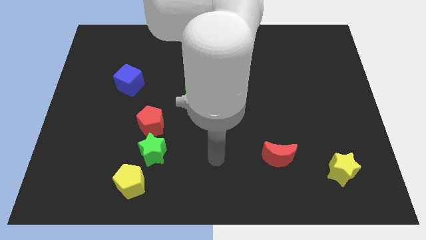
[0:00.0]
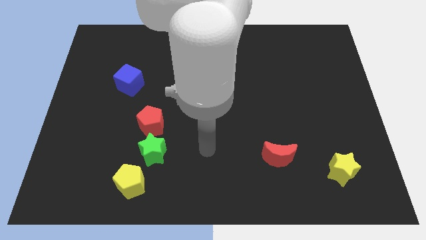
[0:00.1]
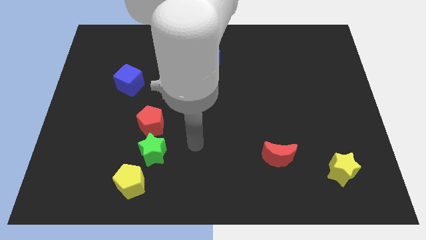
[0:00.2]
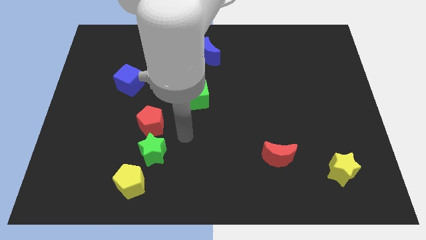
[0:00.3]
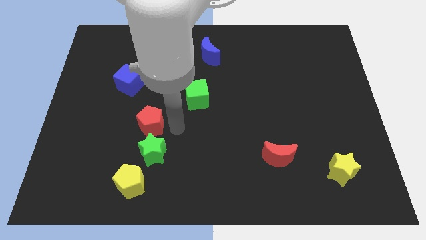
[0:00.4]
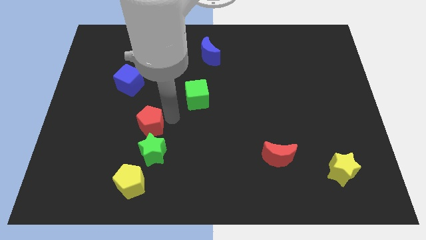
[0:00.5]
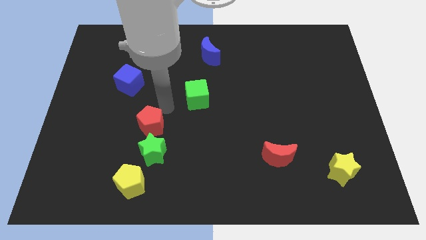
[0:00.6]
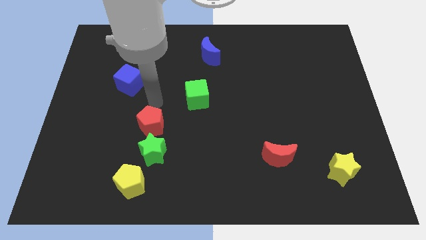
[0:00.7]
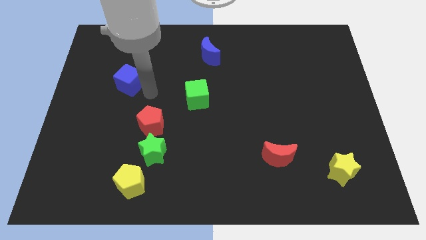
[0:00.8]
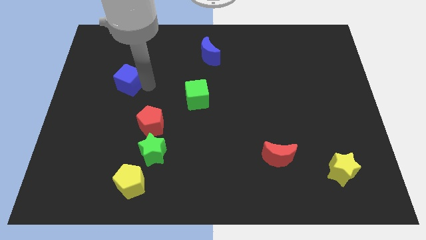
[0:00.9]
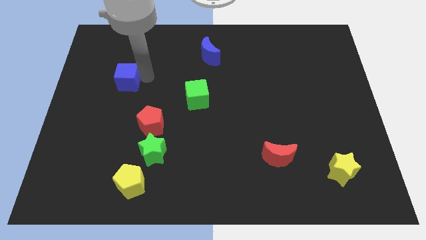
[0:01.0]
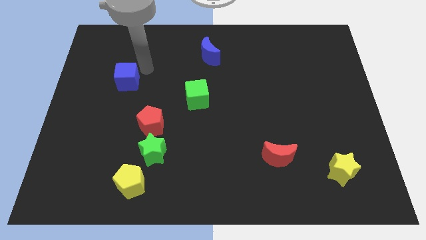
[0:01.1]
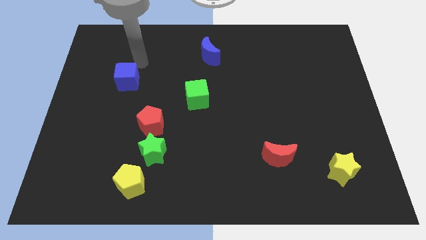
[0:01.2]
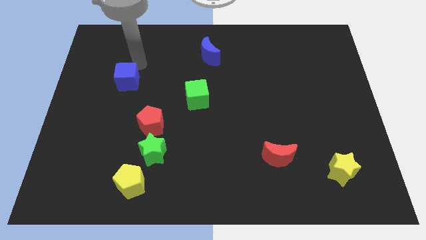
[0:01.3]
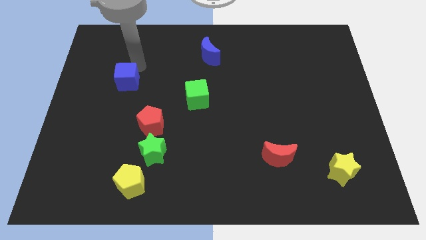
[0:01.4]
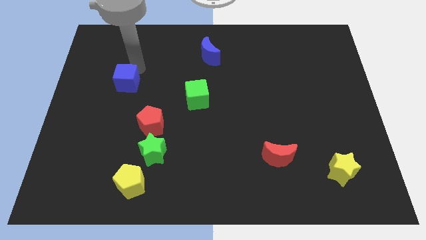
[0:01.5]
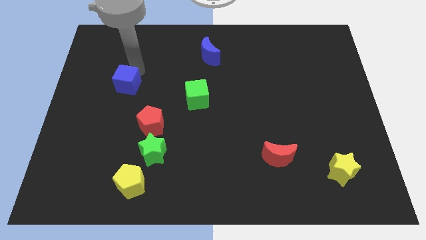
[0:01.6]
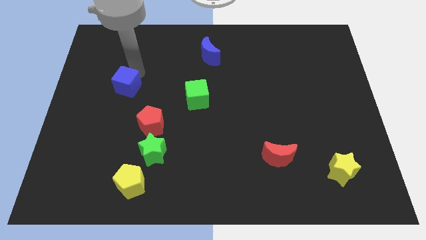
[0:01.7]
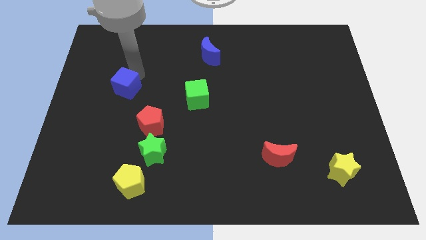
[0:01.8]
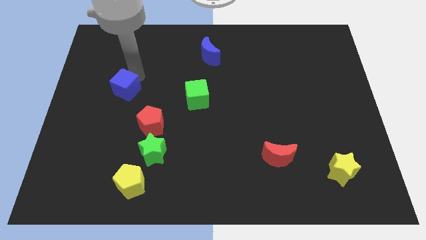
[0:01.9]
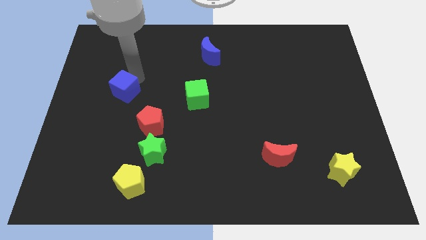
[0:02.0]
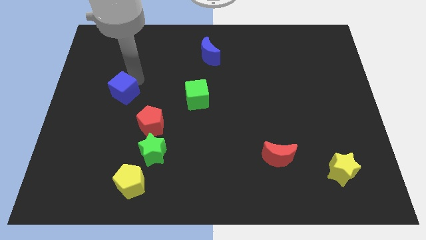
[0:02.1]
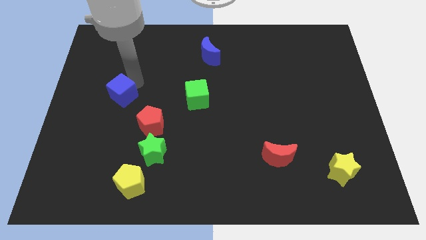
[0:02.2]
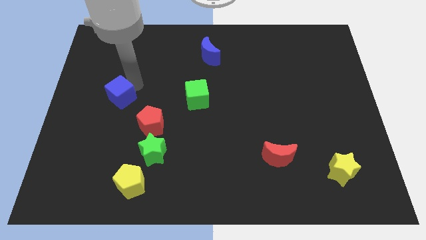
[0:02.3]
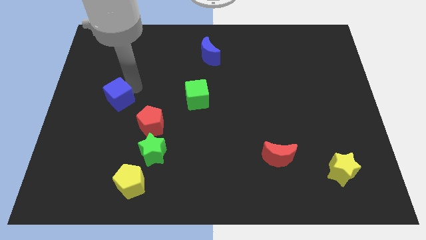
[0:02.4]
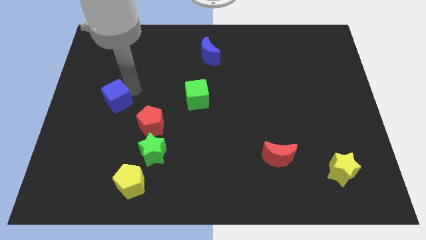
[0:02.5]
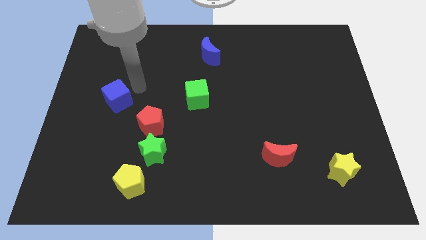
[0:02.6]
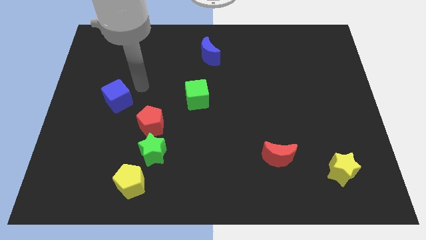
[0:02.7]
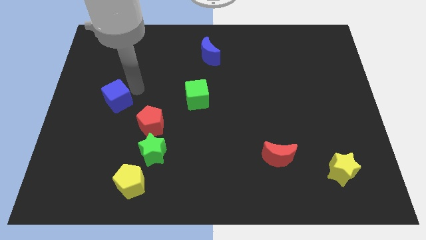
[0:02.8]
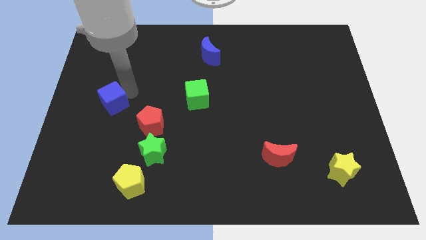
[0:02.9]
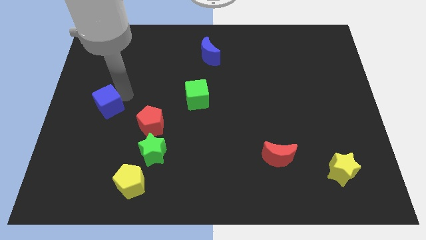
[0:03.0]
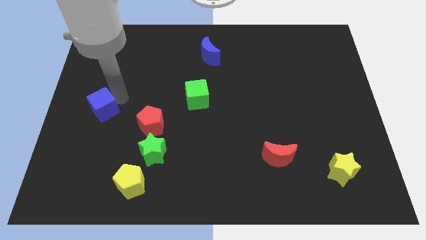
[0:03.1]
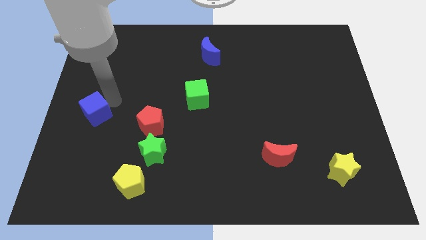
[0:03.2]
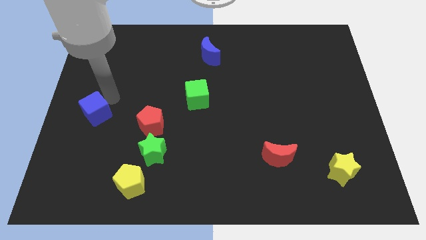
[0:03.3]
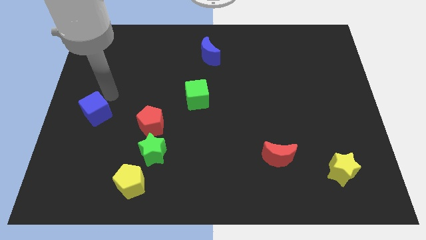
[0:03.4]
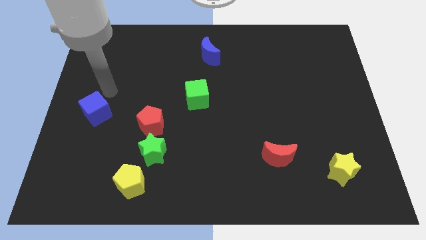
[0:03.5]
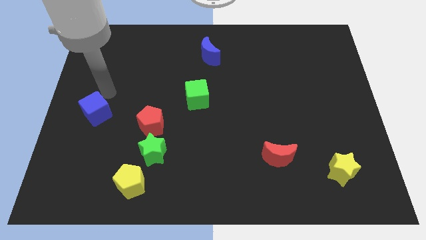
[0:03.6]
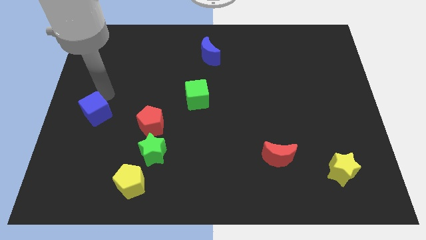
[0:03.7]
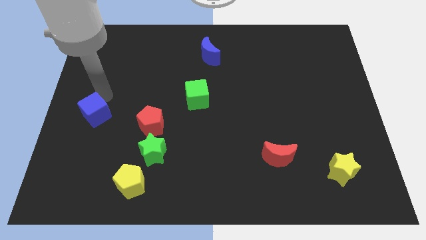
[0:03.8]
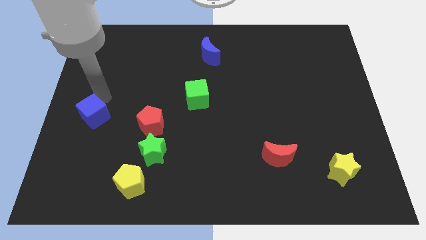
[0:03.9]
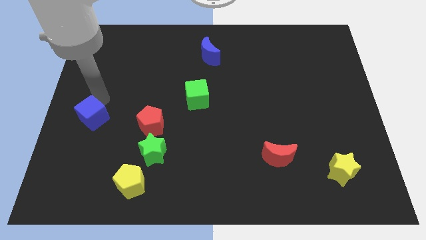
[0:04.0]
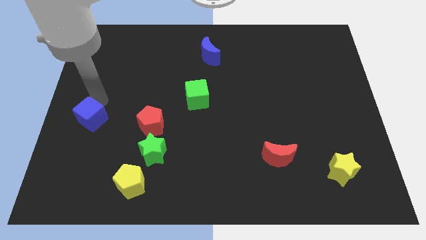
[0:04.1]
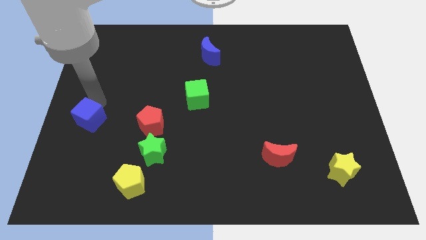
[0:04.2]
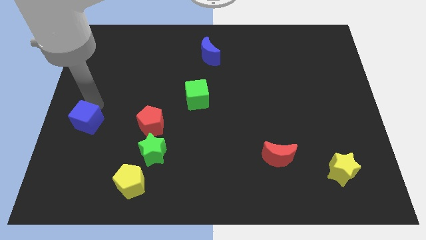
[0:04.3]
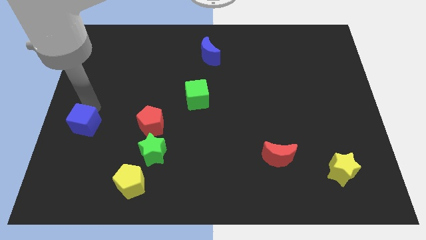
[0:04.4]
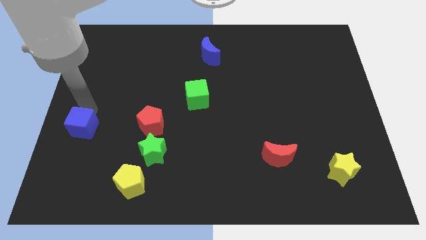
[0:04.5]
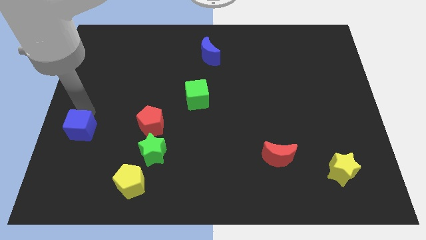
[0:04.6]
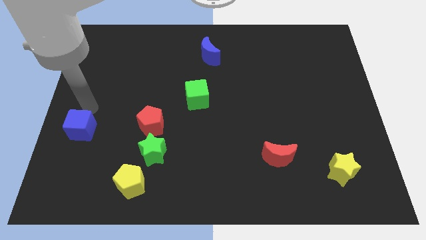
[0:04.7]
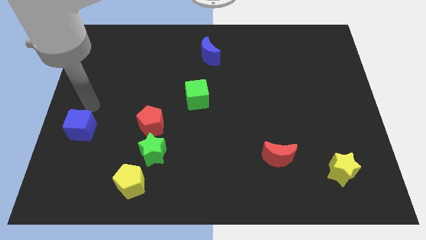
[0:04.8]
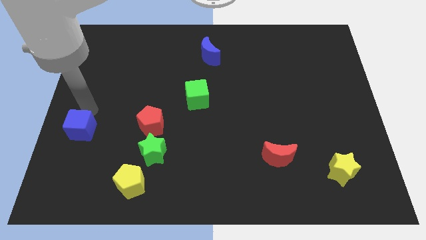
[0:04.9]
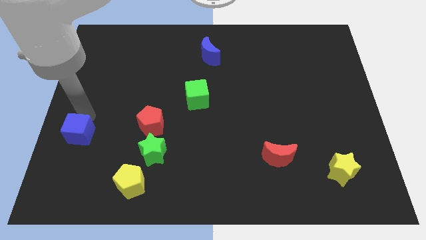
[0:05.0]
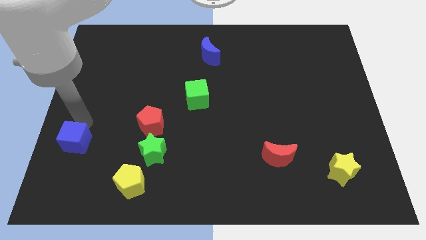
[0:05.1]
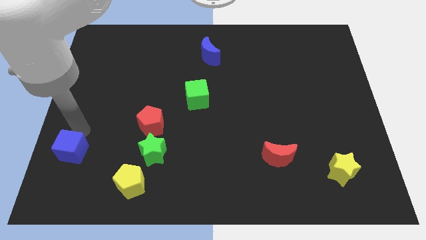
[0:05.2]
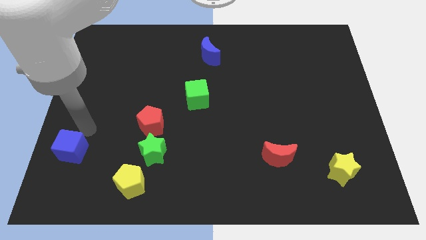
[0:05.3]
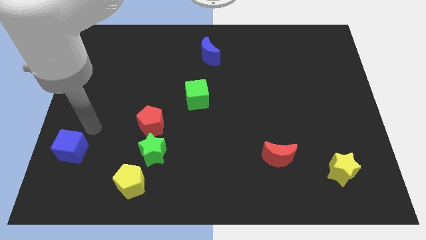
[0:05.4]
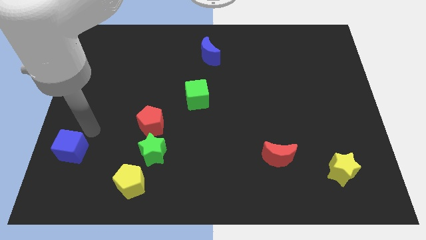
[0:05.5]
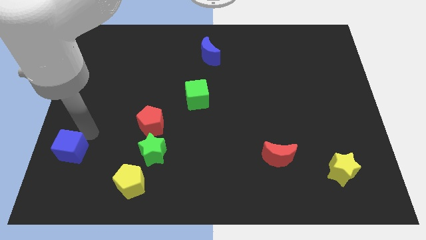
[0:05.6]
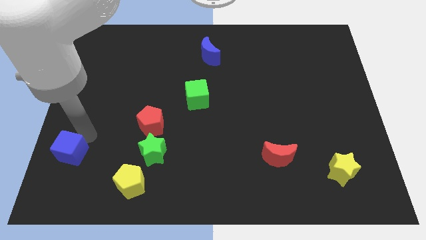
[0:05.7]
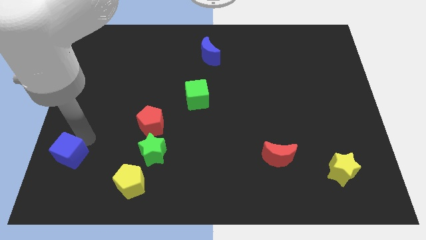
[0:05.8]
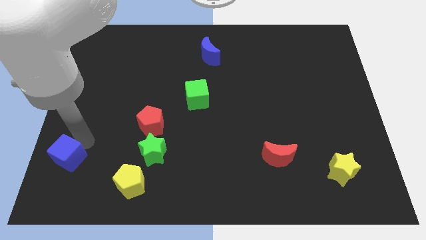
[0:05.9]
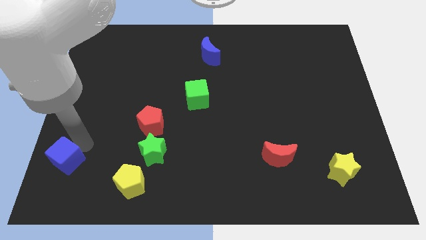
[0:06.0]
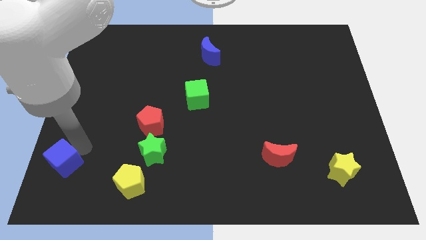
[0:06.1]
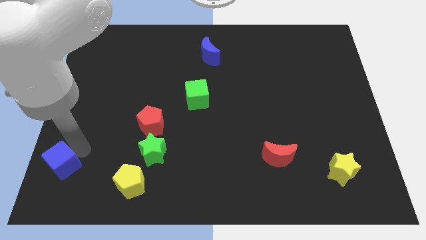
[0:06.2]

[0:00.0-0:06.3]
move the blue cube to the bottom left

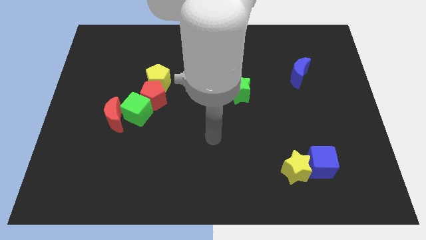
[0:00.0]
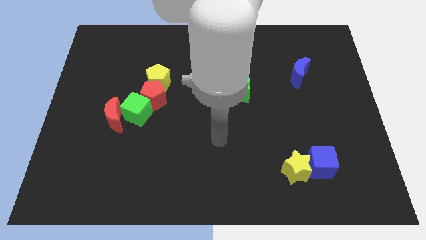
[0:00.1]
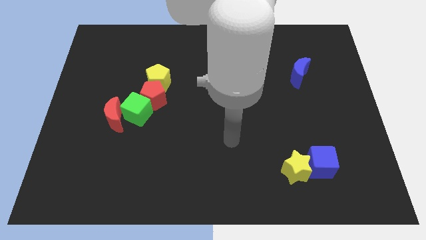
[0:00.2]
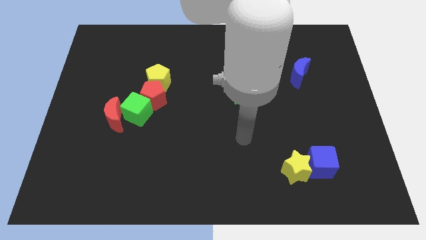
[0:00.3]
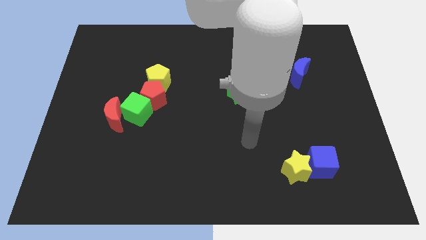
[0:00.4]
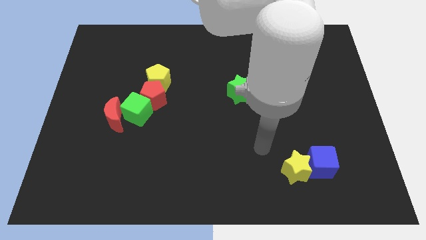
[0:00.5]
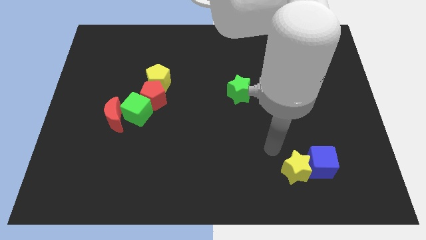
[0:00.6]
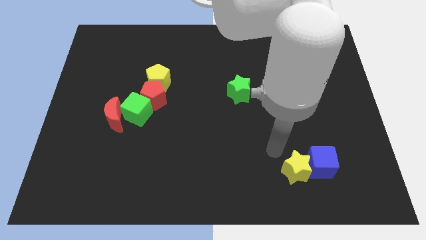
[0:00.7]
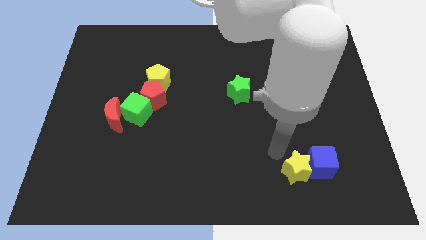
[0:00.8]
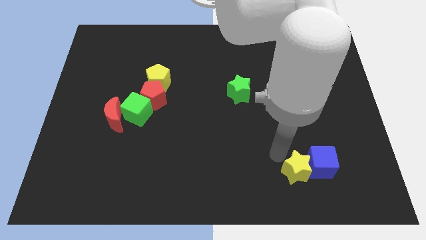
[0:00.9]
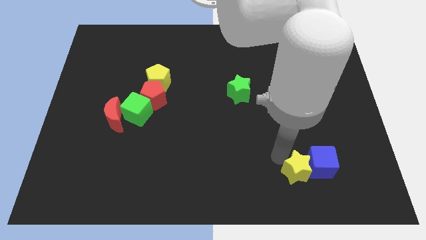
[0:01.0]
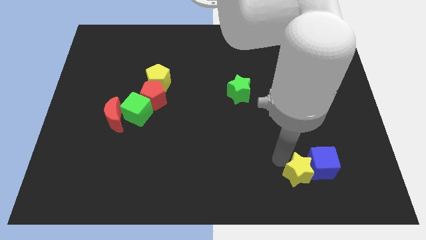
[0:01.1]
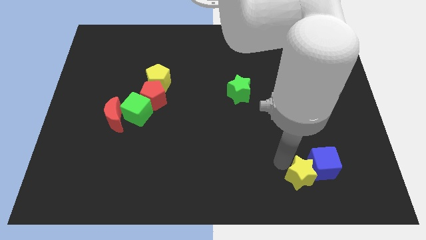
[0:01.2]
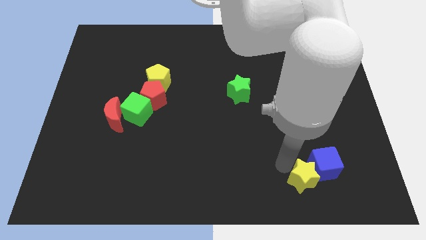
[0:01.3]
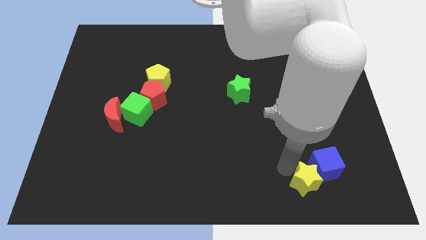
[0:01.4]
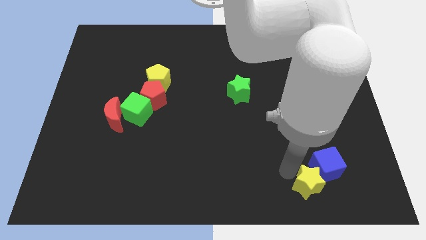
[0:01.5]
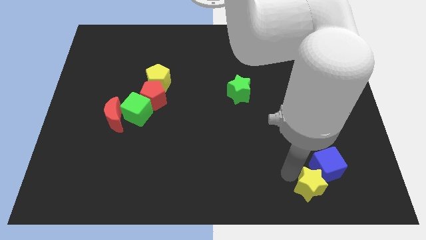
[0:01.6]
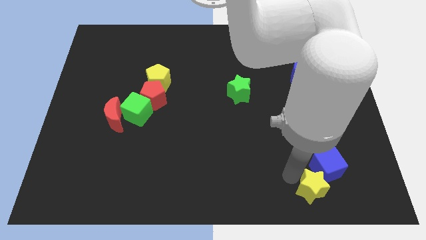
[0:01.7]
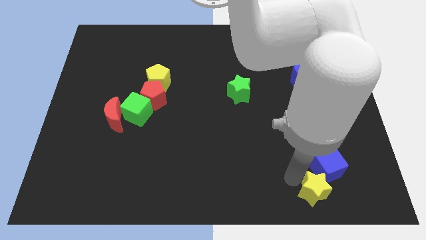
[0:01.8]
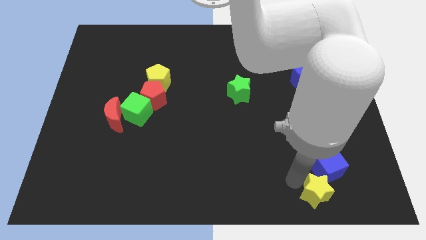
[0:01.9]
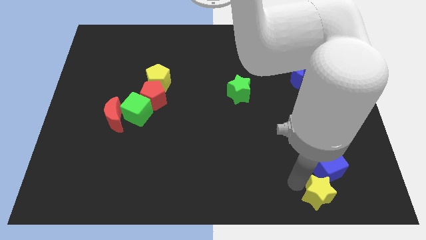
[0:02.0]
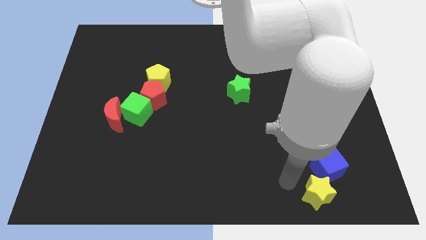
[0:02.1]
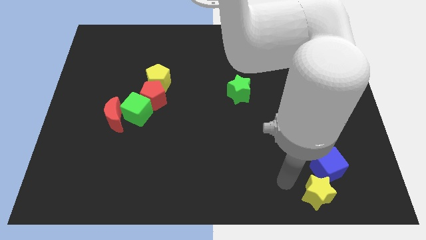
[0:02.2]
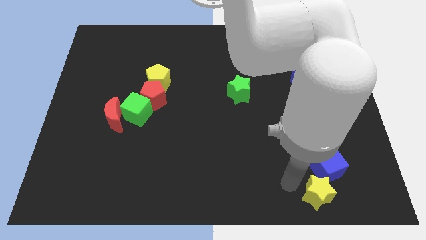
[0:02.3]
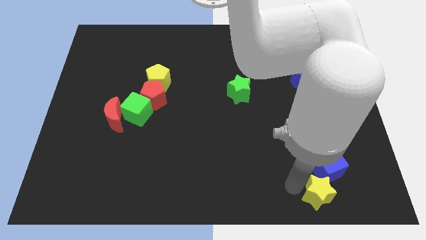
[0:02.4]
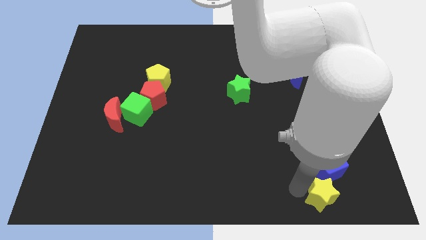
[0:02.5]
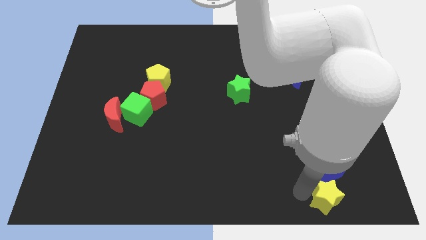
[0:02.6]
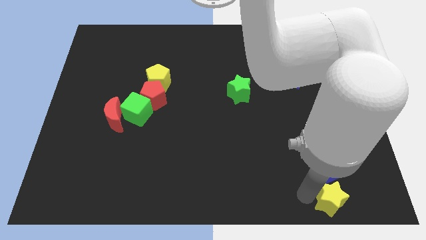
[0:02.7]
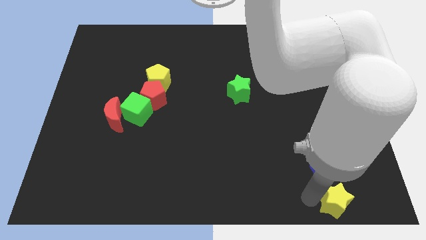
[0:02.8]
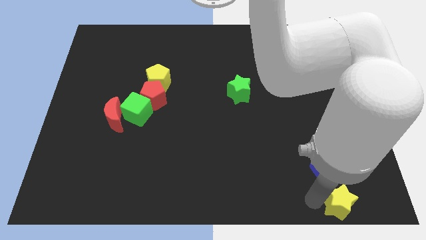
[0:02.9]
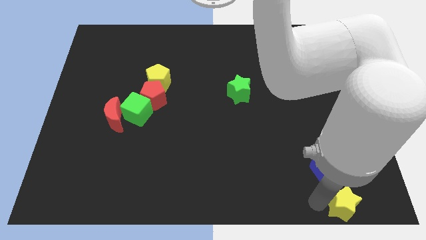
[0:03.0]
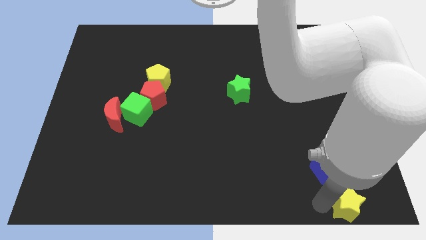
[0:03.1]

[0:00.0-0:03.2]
put the yellow star to the bottom right corner
